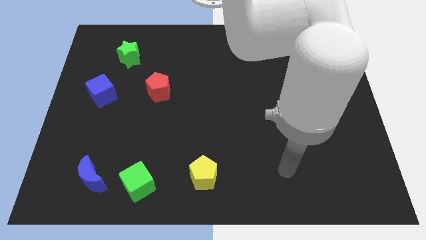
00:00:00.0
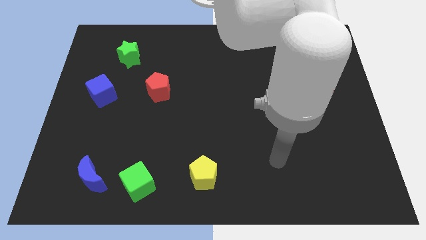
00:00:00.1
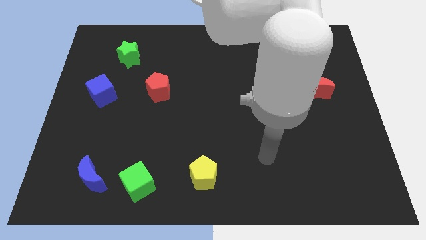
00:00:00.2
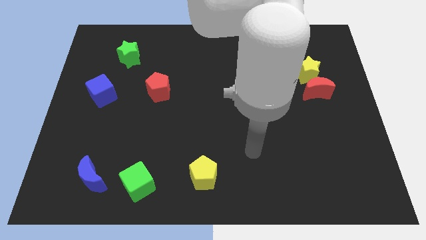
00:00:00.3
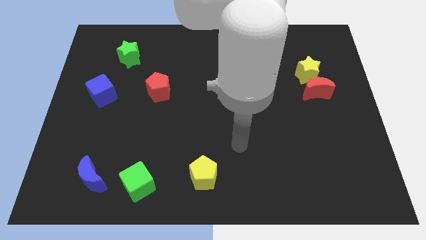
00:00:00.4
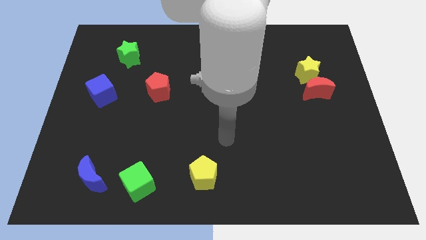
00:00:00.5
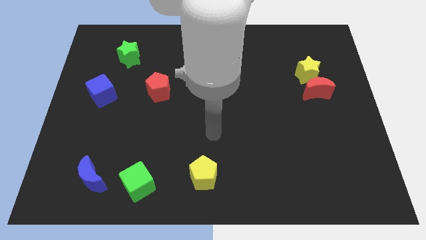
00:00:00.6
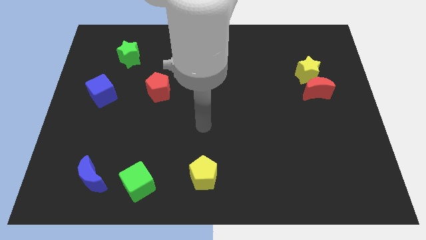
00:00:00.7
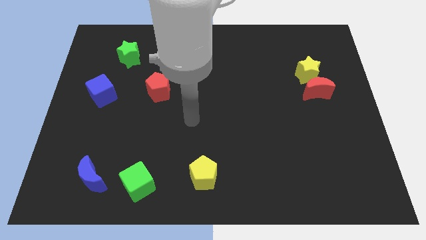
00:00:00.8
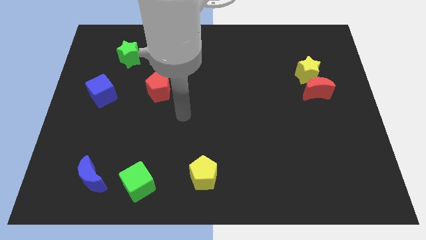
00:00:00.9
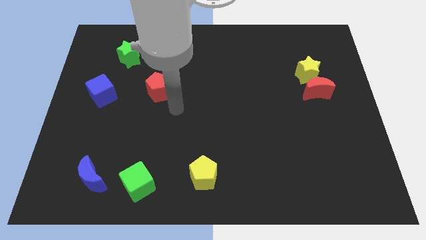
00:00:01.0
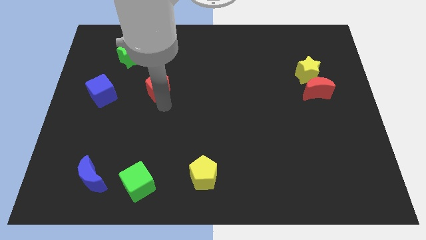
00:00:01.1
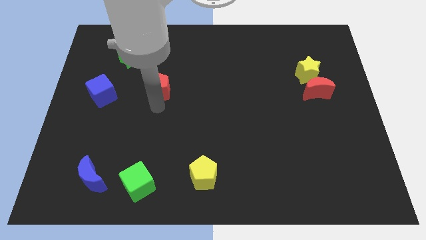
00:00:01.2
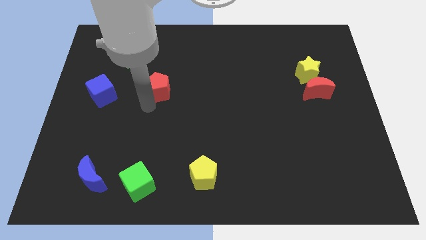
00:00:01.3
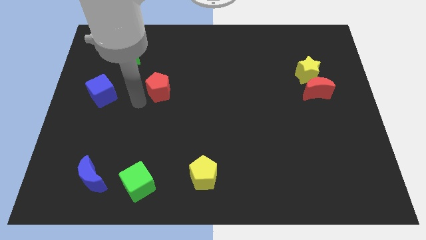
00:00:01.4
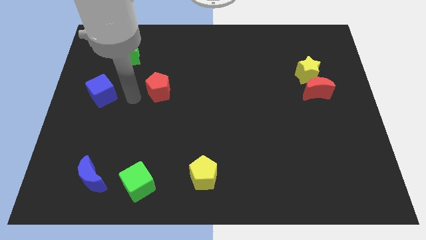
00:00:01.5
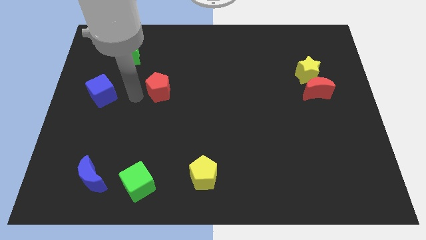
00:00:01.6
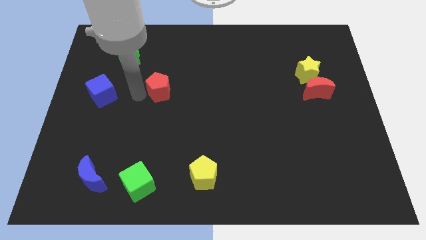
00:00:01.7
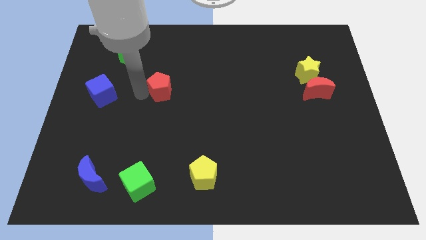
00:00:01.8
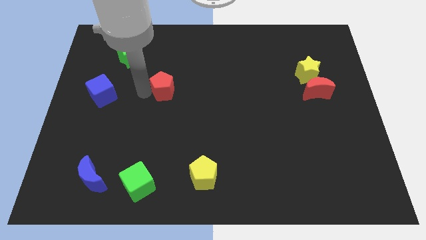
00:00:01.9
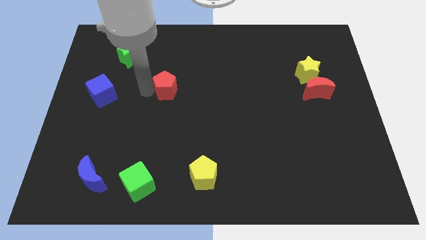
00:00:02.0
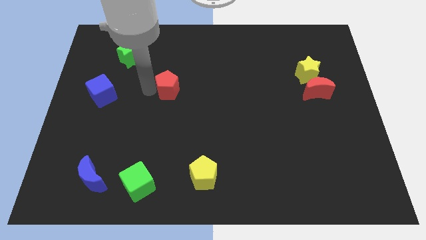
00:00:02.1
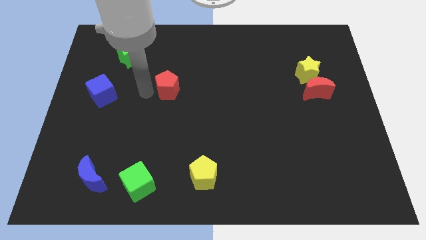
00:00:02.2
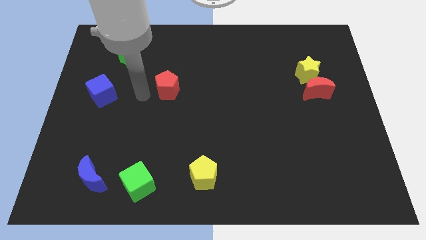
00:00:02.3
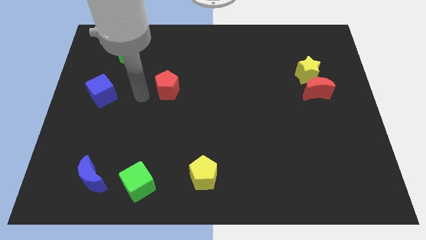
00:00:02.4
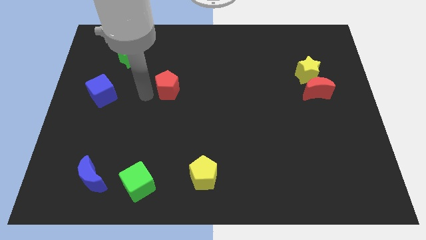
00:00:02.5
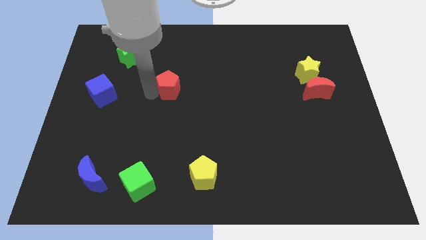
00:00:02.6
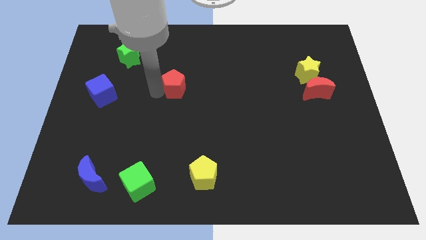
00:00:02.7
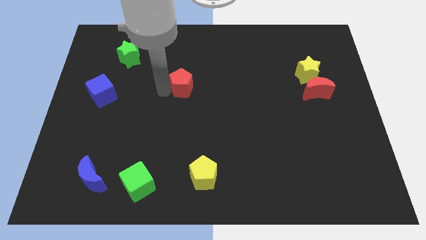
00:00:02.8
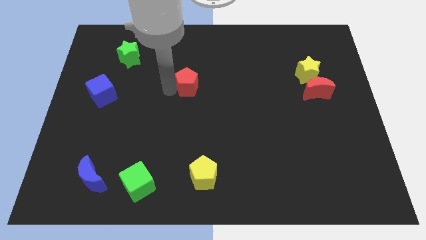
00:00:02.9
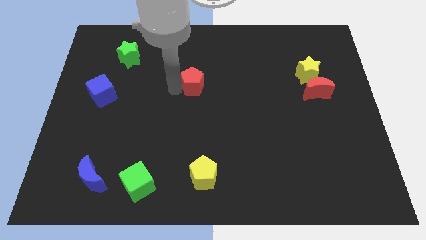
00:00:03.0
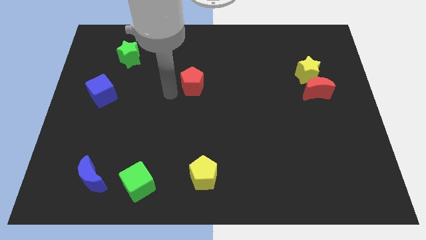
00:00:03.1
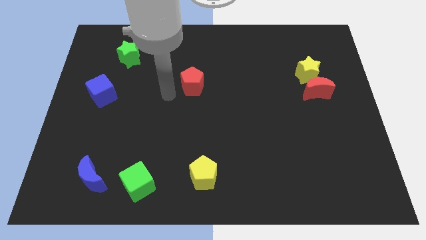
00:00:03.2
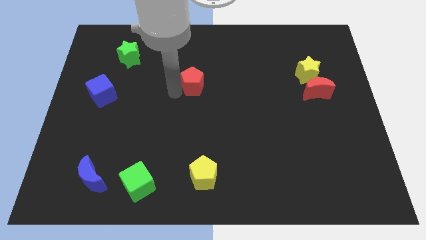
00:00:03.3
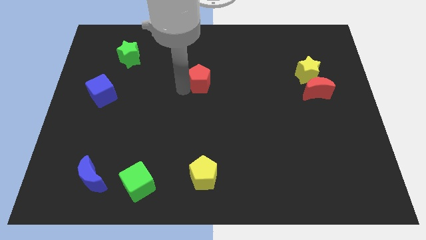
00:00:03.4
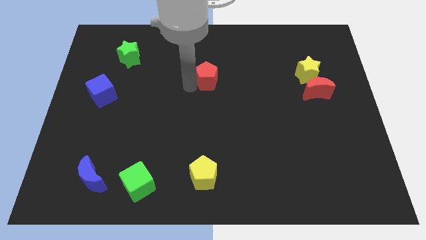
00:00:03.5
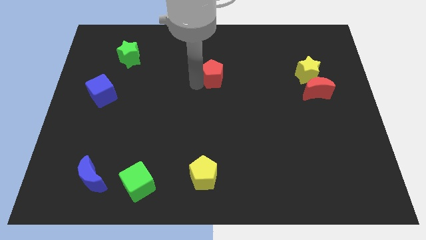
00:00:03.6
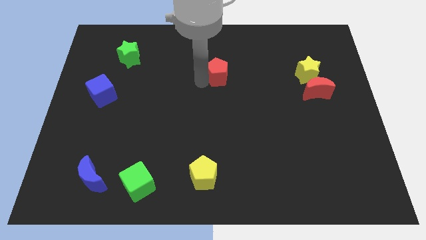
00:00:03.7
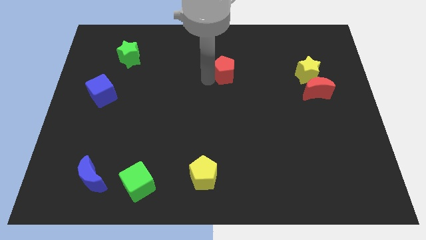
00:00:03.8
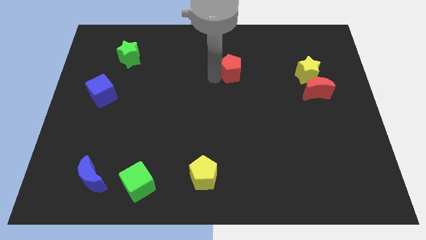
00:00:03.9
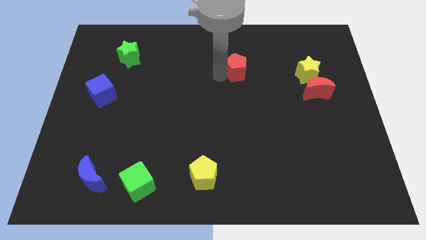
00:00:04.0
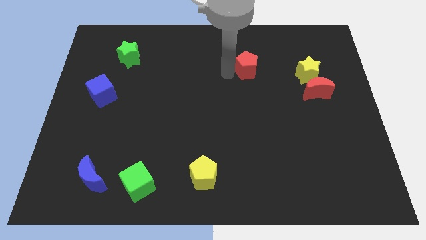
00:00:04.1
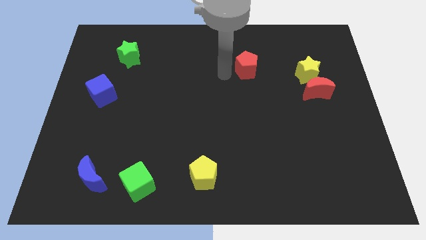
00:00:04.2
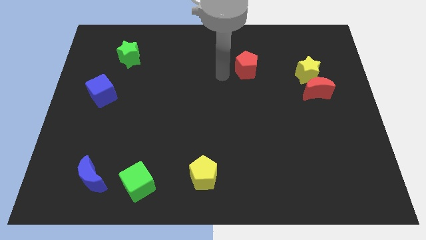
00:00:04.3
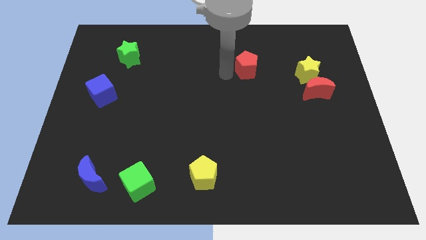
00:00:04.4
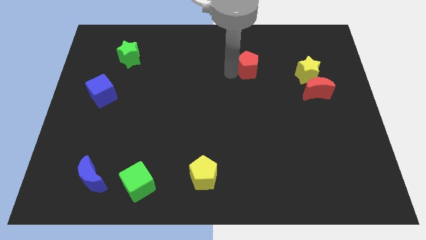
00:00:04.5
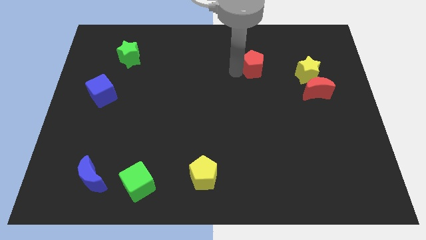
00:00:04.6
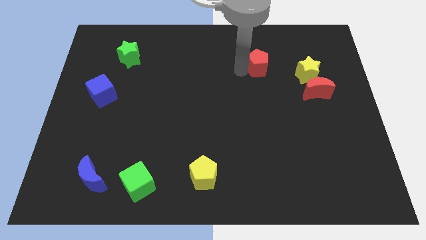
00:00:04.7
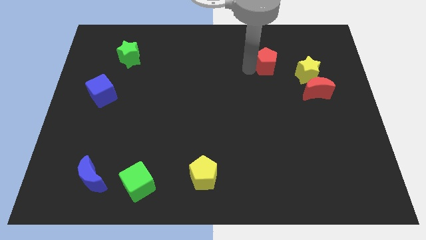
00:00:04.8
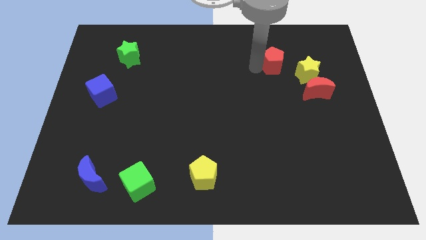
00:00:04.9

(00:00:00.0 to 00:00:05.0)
push the red pentagon diagonally up and to the left of the yellow star

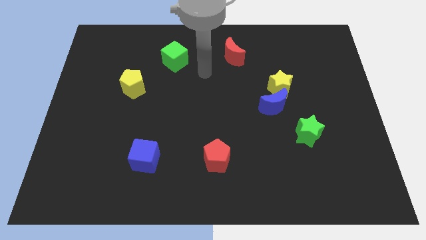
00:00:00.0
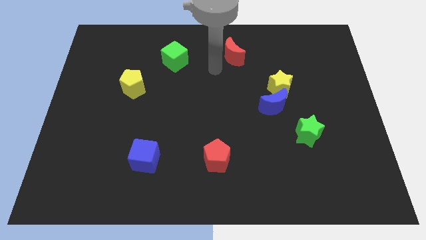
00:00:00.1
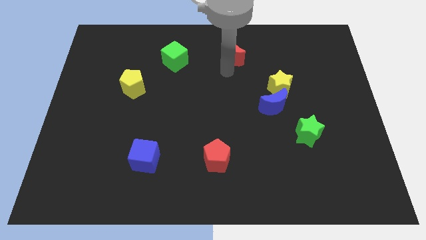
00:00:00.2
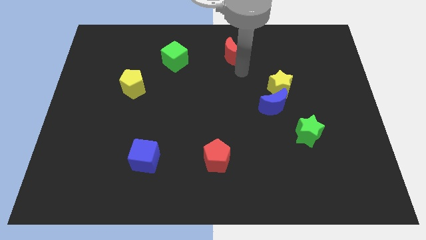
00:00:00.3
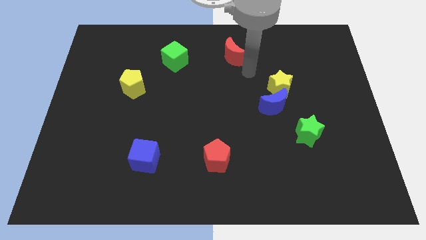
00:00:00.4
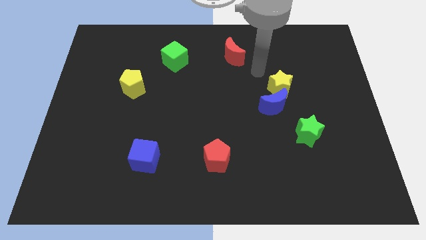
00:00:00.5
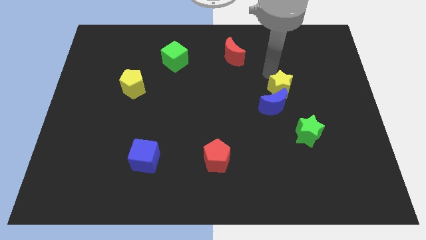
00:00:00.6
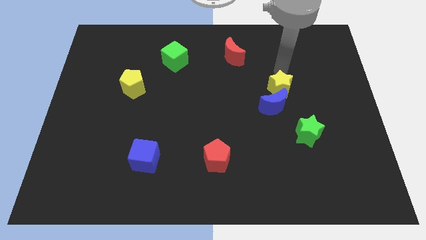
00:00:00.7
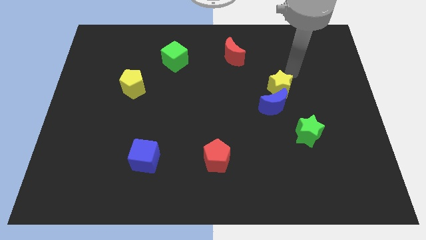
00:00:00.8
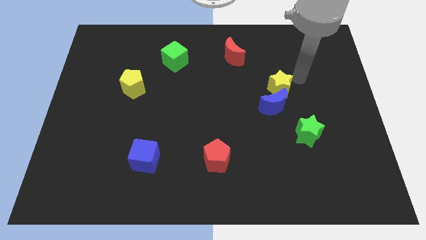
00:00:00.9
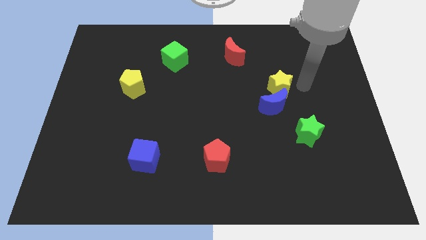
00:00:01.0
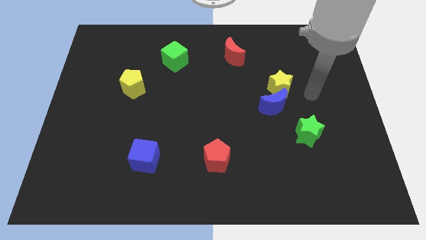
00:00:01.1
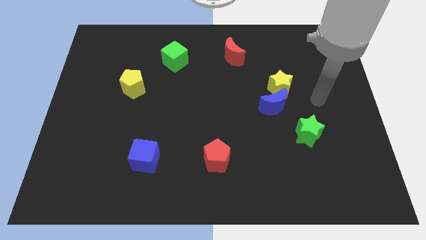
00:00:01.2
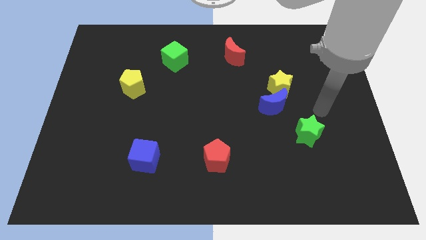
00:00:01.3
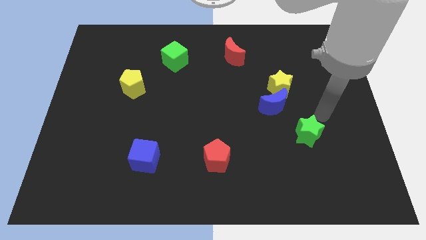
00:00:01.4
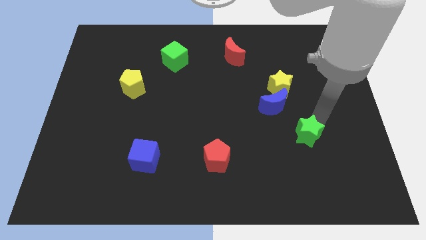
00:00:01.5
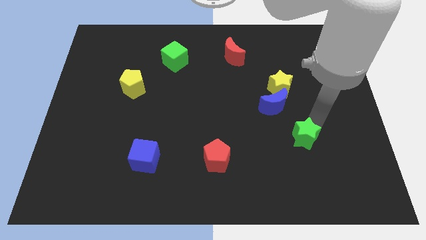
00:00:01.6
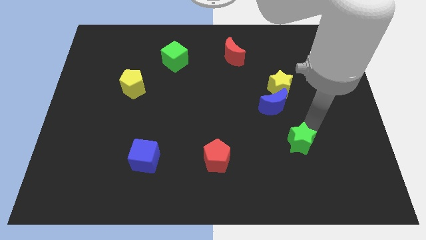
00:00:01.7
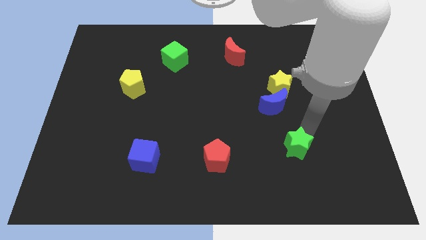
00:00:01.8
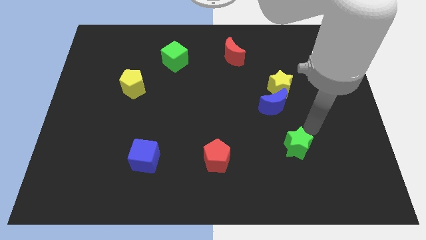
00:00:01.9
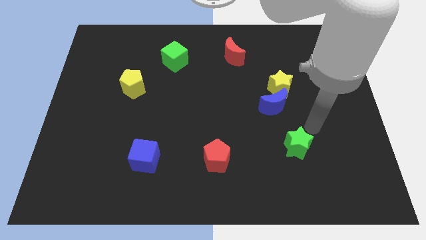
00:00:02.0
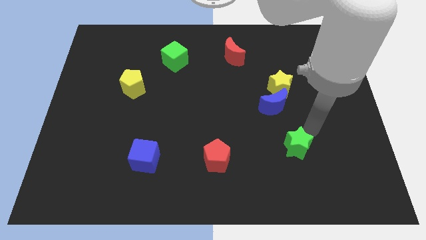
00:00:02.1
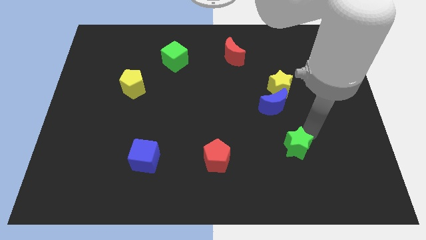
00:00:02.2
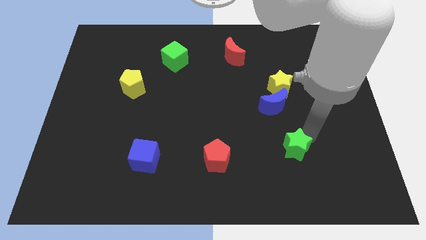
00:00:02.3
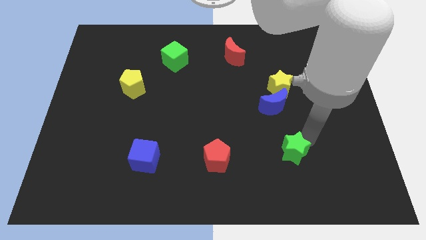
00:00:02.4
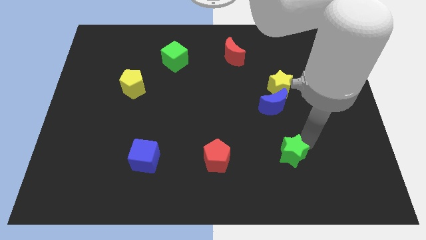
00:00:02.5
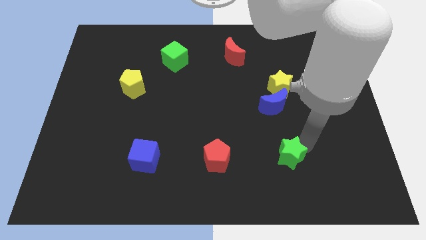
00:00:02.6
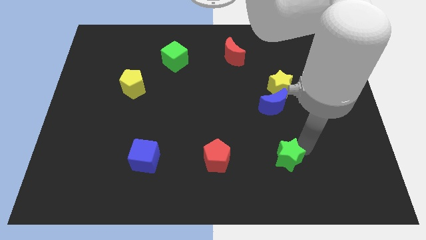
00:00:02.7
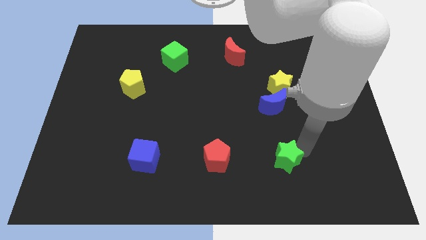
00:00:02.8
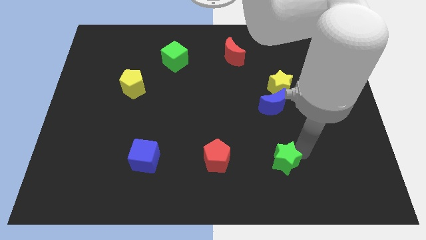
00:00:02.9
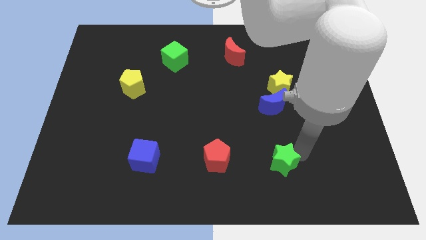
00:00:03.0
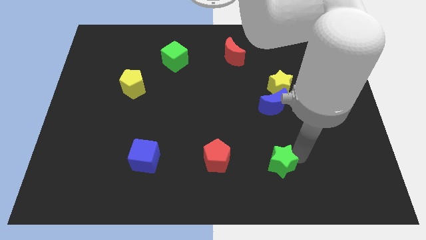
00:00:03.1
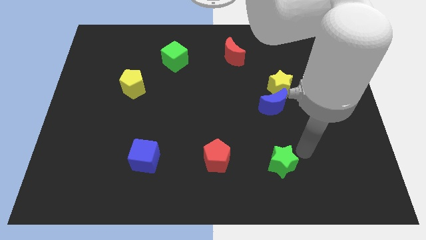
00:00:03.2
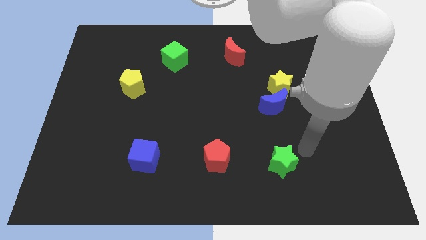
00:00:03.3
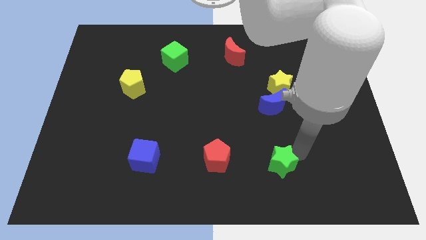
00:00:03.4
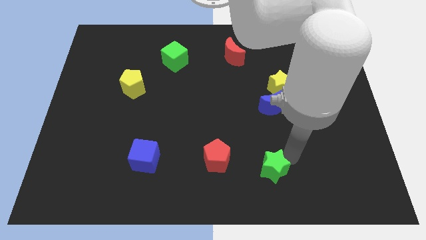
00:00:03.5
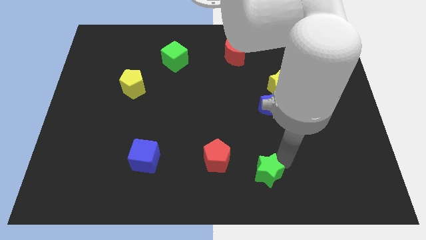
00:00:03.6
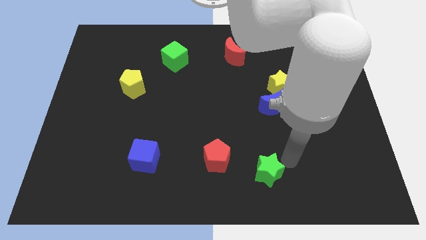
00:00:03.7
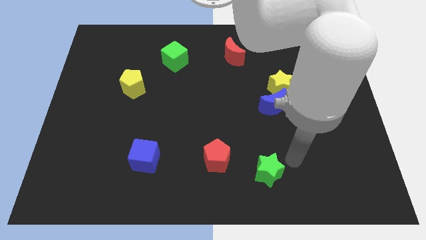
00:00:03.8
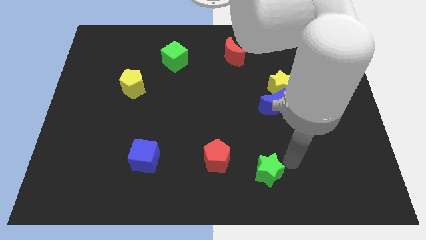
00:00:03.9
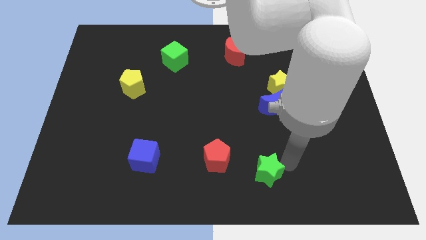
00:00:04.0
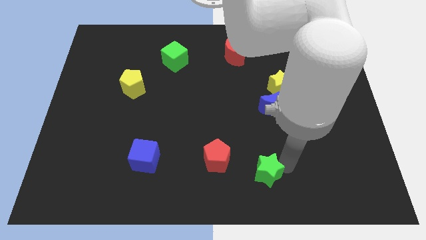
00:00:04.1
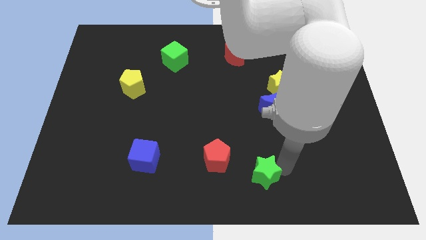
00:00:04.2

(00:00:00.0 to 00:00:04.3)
put the green star to the bottom right of the red pentagon
